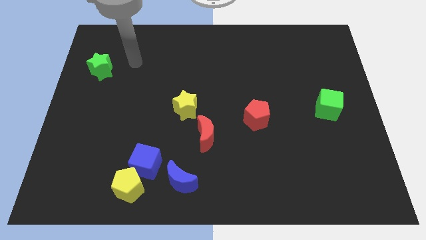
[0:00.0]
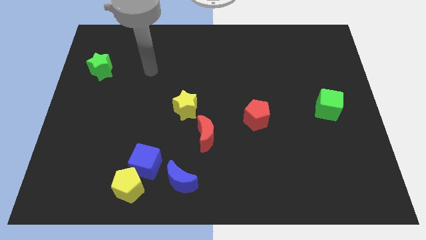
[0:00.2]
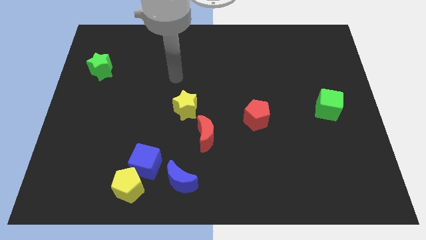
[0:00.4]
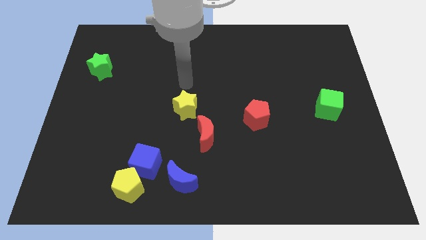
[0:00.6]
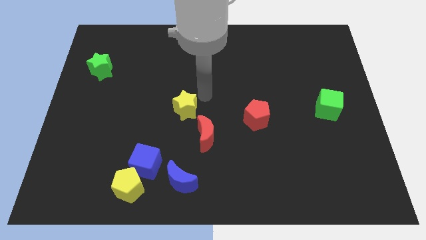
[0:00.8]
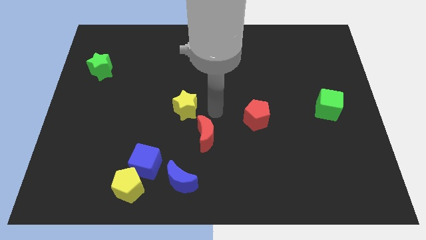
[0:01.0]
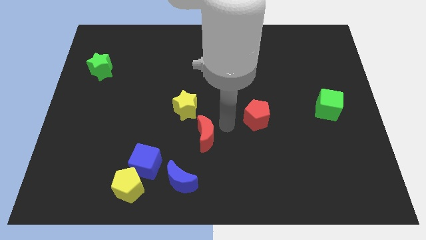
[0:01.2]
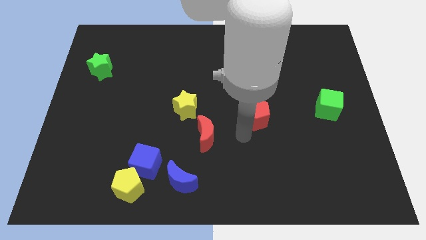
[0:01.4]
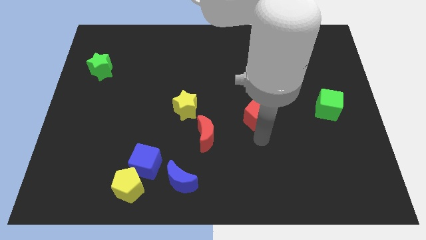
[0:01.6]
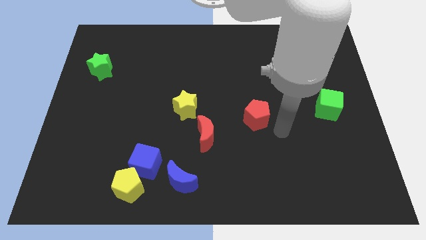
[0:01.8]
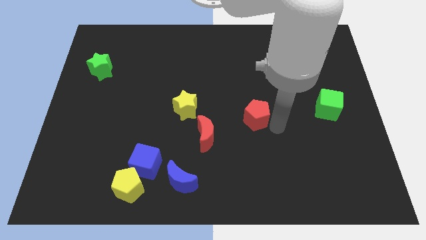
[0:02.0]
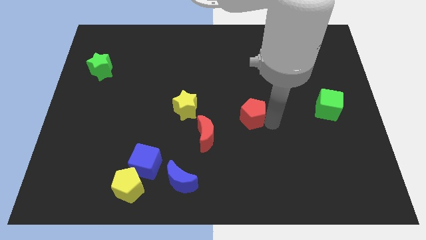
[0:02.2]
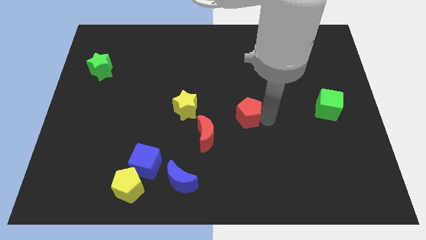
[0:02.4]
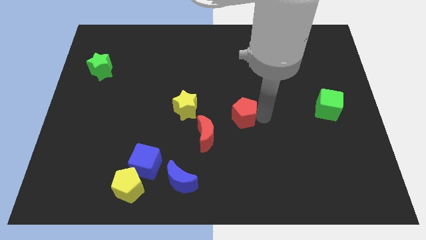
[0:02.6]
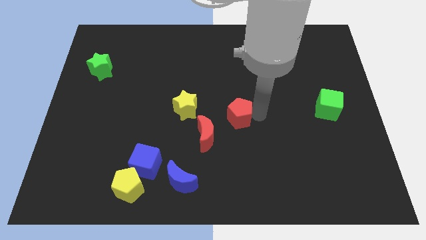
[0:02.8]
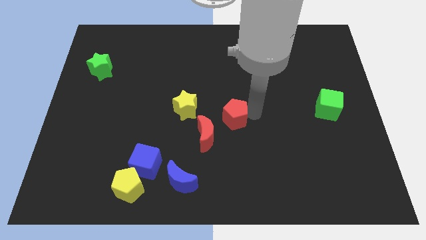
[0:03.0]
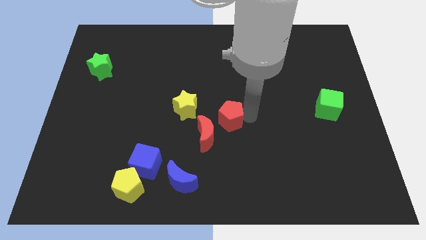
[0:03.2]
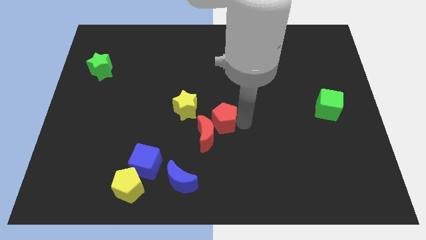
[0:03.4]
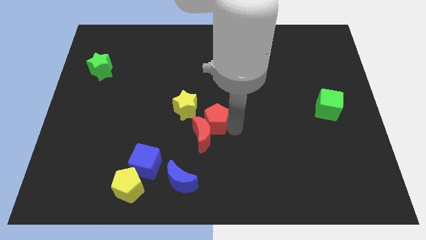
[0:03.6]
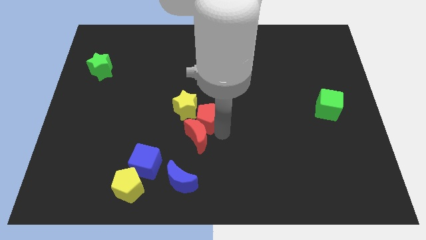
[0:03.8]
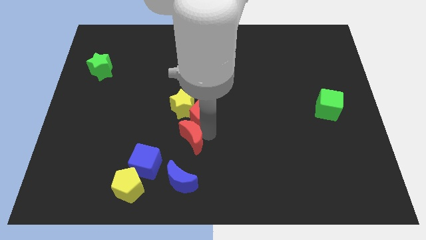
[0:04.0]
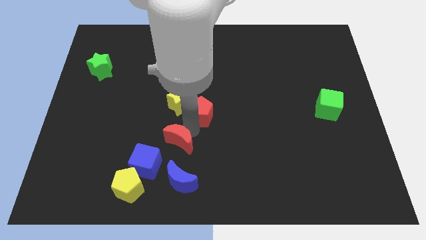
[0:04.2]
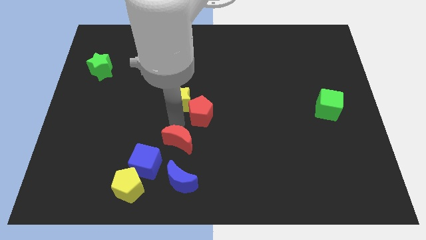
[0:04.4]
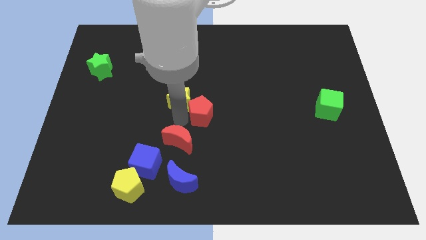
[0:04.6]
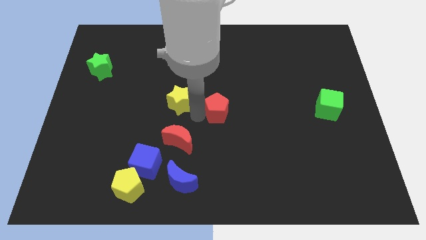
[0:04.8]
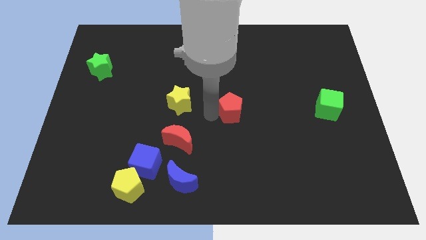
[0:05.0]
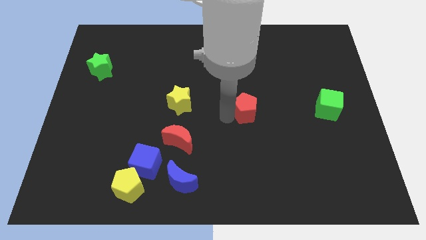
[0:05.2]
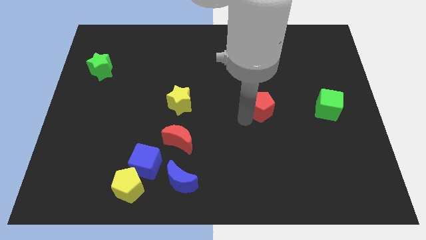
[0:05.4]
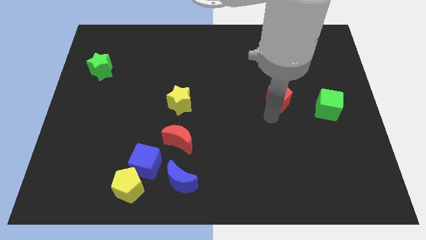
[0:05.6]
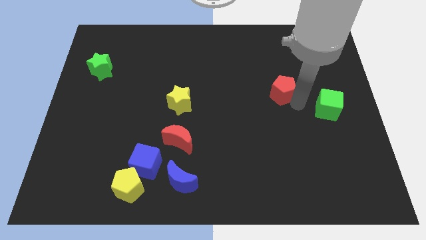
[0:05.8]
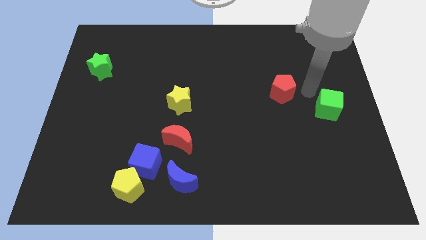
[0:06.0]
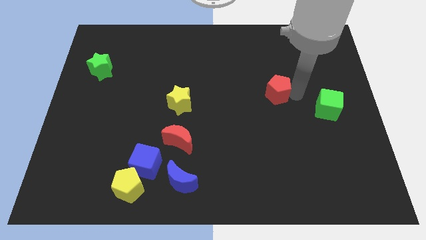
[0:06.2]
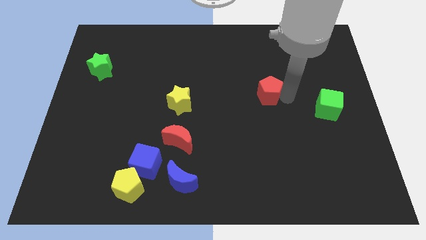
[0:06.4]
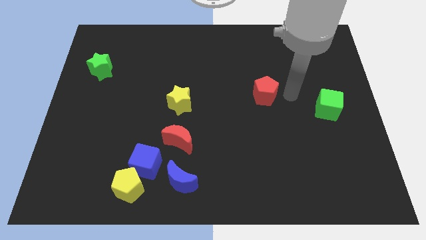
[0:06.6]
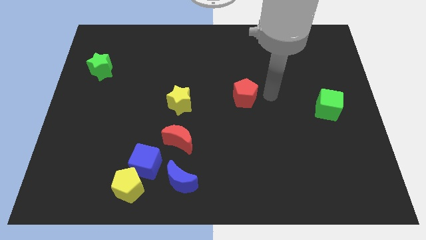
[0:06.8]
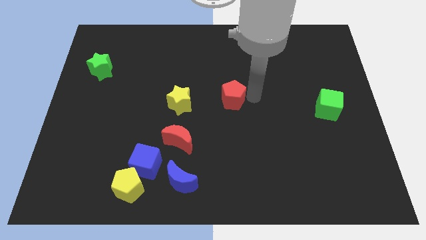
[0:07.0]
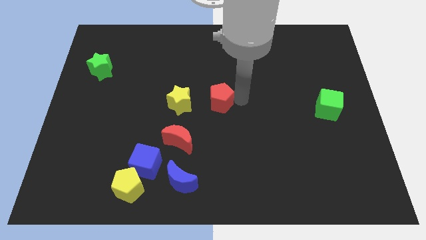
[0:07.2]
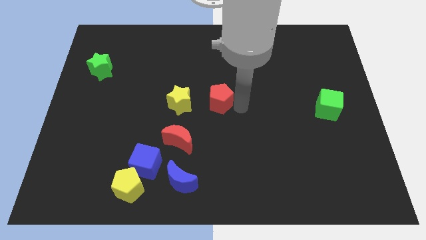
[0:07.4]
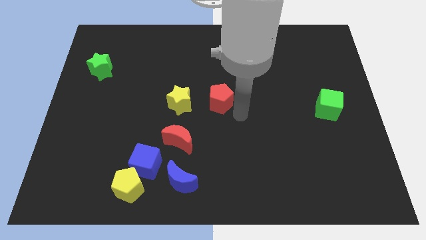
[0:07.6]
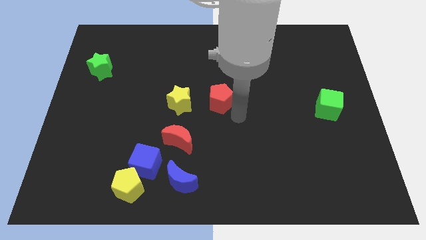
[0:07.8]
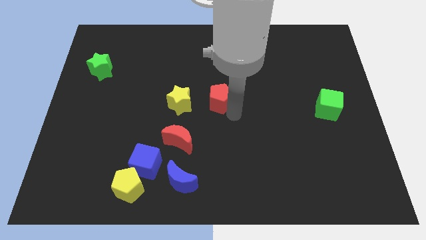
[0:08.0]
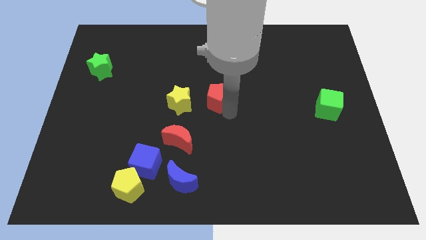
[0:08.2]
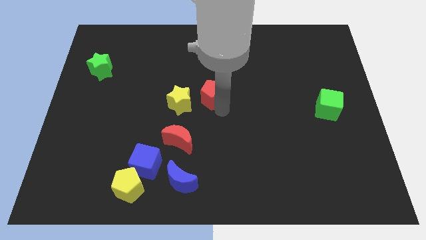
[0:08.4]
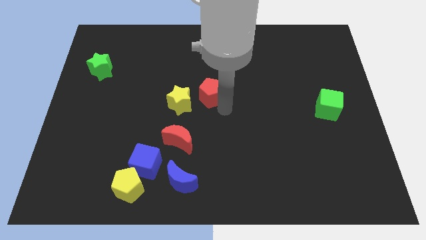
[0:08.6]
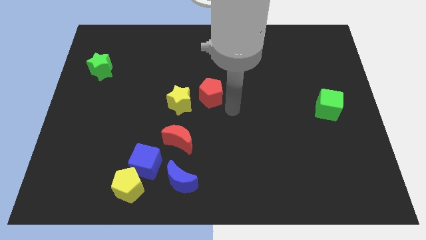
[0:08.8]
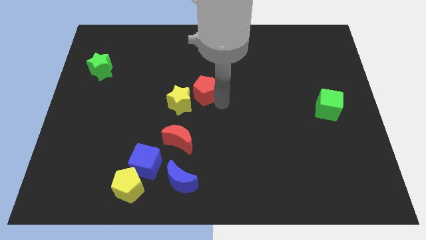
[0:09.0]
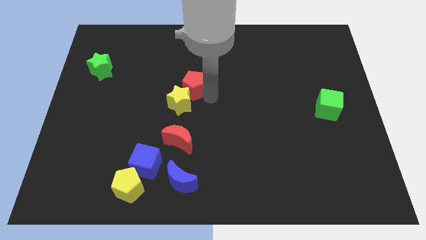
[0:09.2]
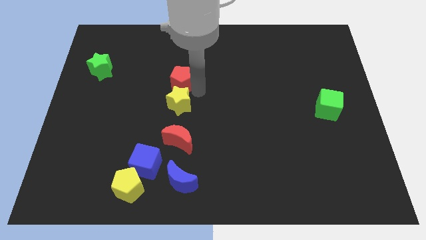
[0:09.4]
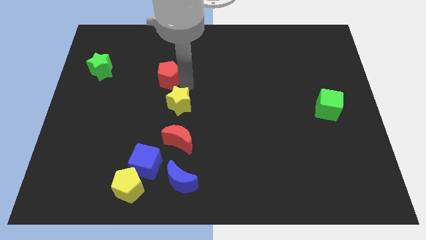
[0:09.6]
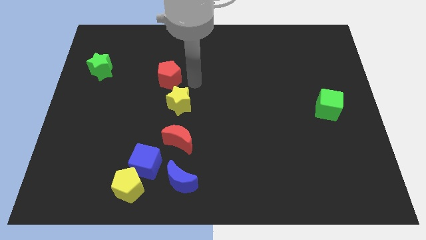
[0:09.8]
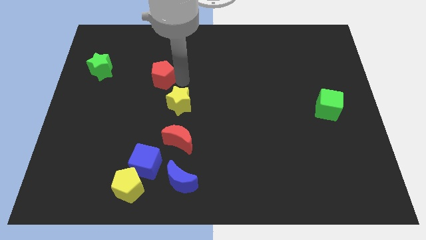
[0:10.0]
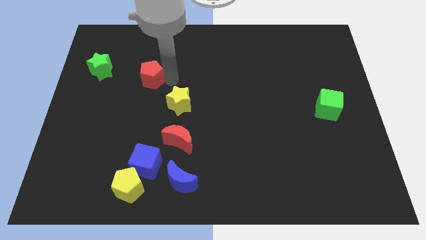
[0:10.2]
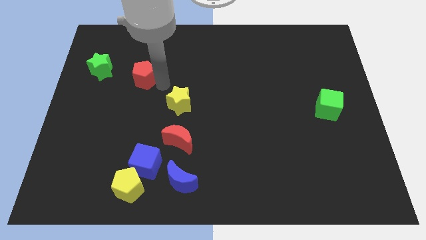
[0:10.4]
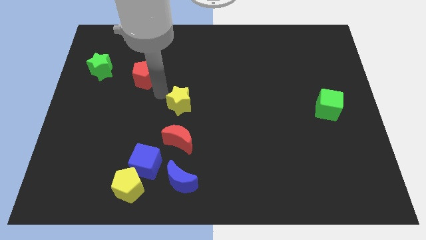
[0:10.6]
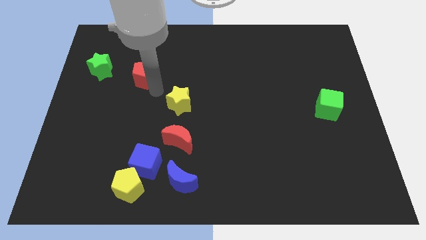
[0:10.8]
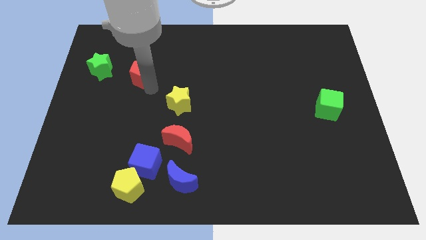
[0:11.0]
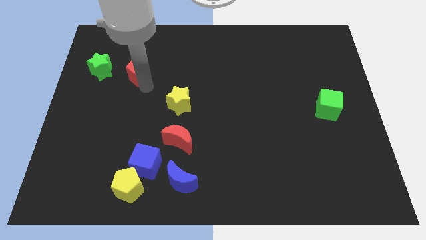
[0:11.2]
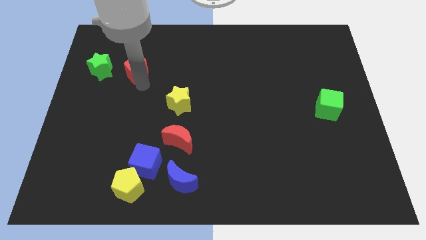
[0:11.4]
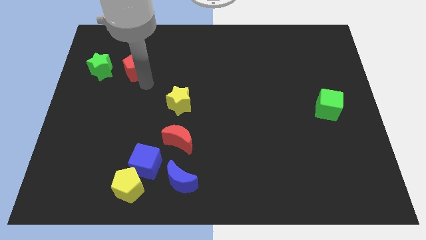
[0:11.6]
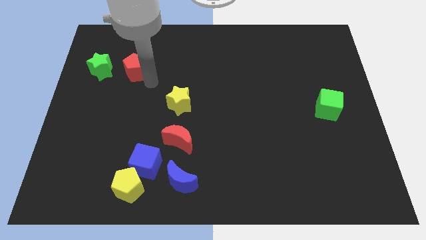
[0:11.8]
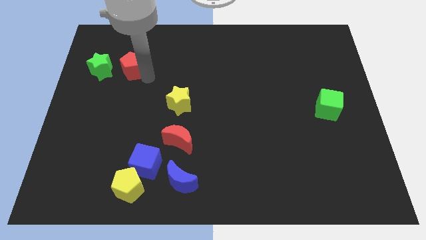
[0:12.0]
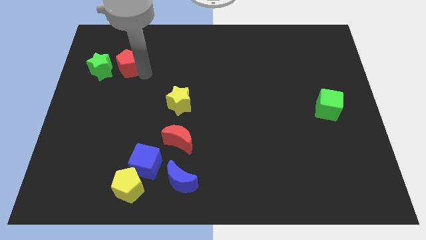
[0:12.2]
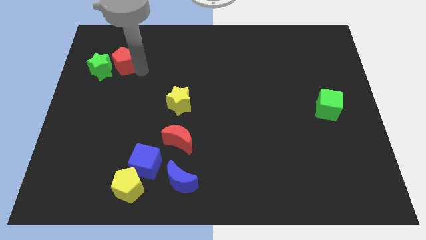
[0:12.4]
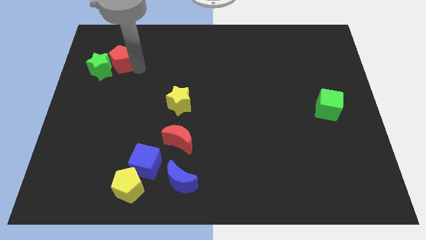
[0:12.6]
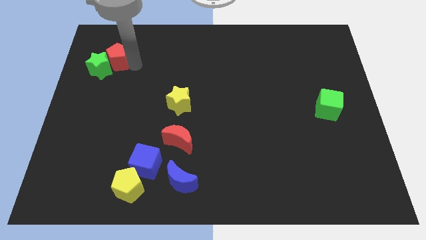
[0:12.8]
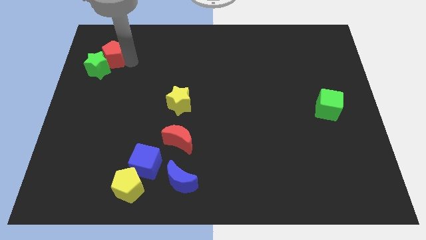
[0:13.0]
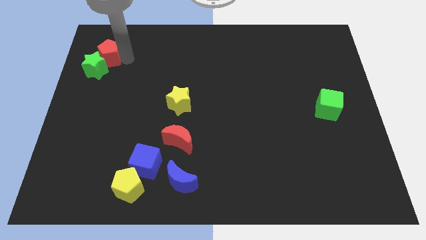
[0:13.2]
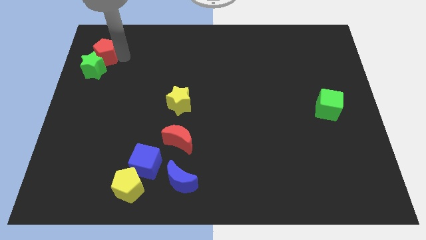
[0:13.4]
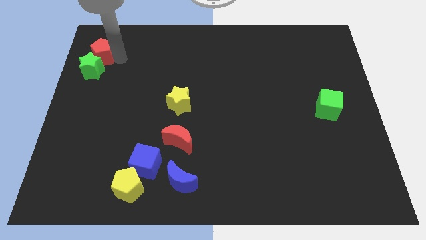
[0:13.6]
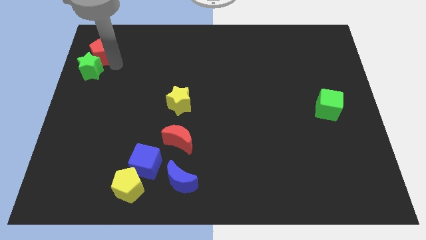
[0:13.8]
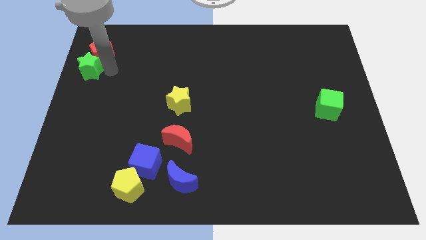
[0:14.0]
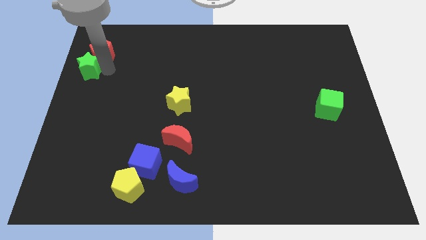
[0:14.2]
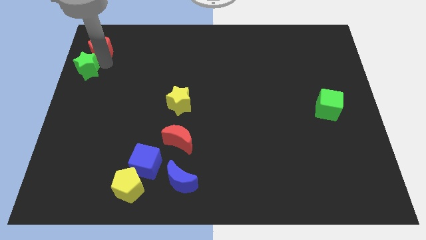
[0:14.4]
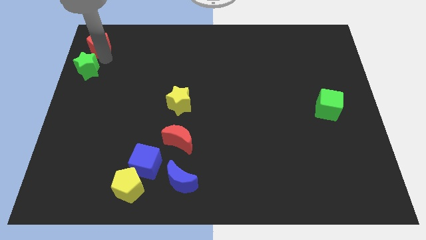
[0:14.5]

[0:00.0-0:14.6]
put the red pentagon to the top left corner
